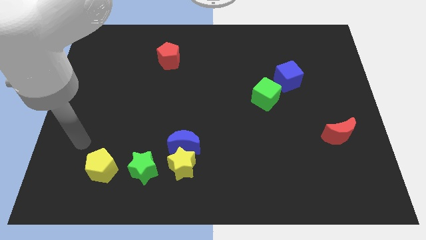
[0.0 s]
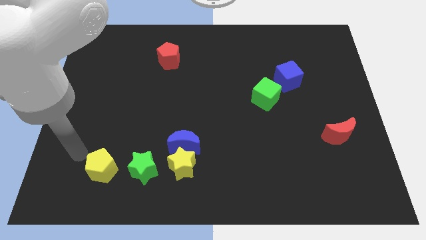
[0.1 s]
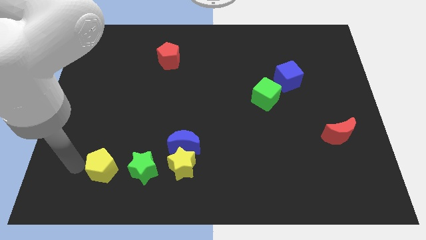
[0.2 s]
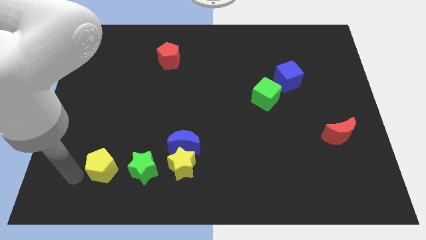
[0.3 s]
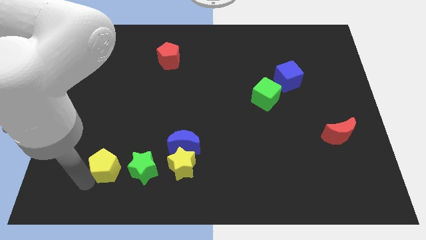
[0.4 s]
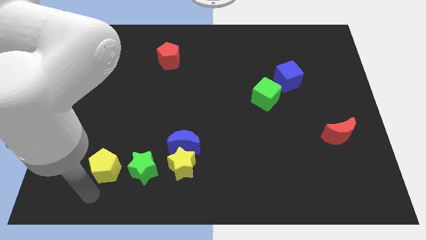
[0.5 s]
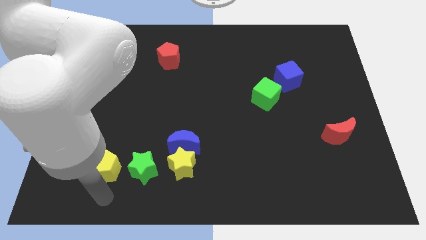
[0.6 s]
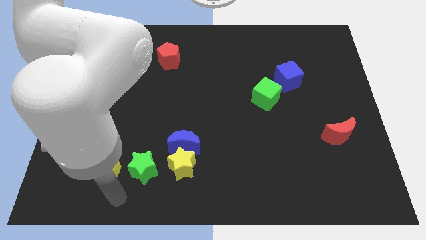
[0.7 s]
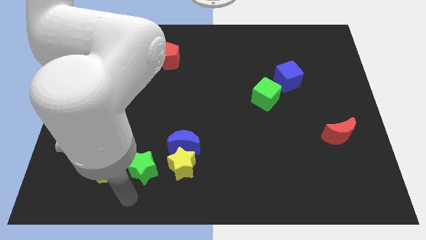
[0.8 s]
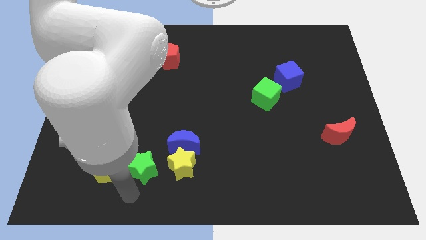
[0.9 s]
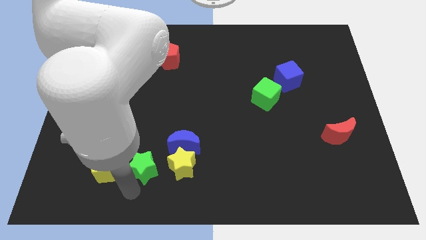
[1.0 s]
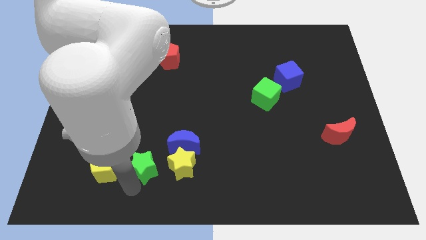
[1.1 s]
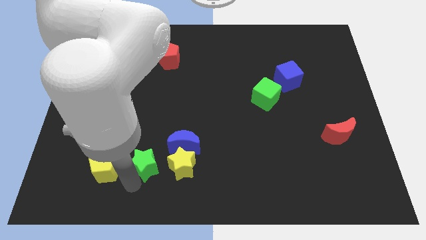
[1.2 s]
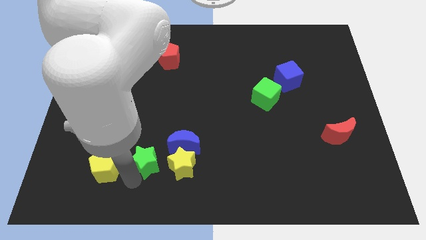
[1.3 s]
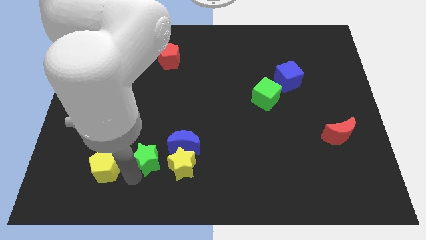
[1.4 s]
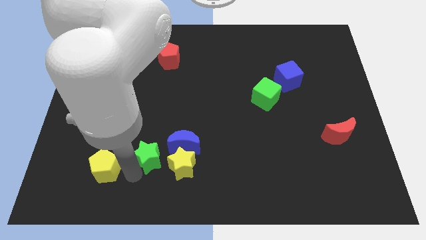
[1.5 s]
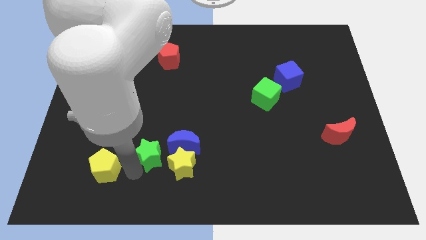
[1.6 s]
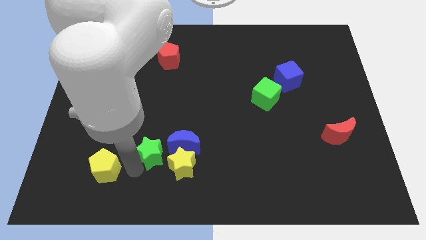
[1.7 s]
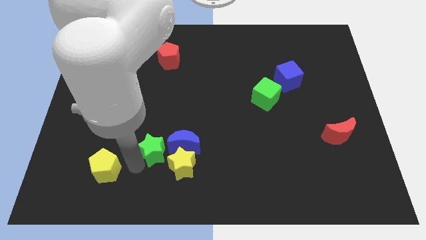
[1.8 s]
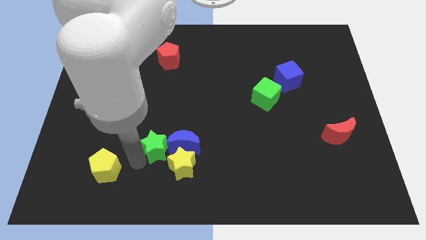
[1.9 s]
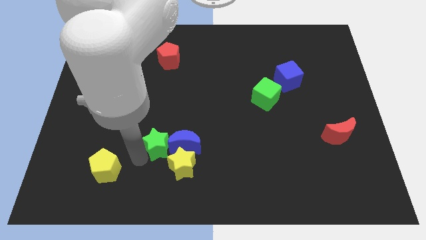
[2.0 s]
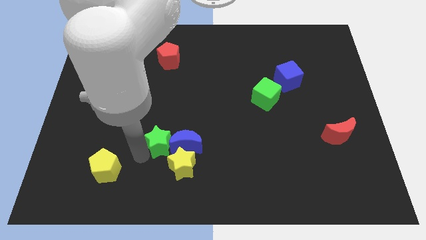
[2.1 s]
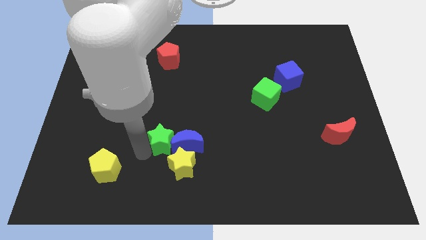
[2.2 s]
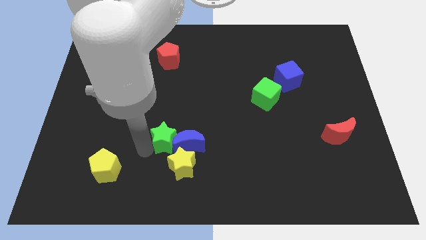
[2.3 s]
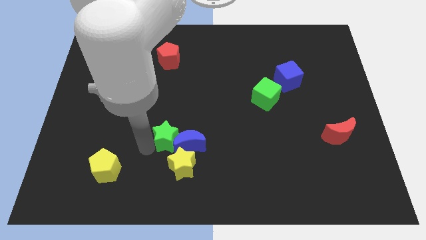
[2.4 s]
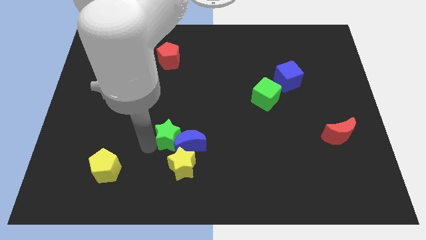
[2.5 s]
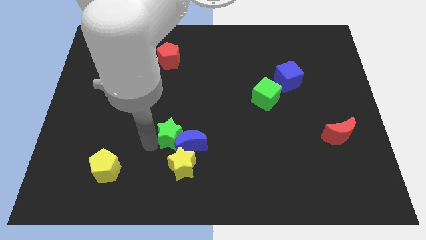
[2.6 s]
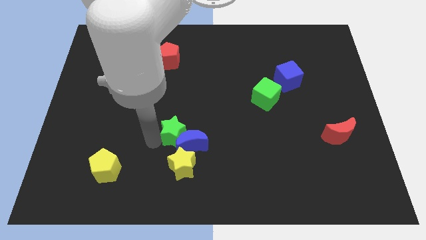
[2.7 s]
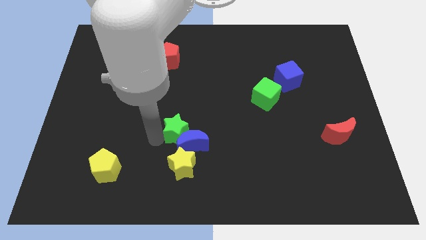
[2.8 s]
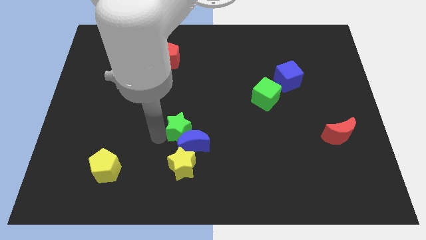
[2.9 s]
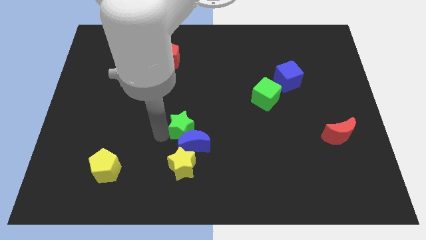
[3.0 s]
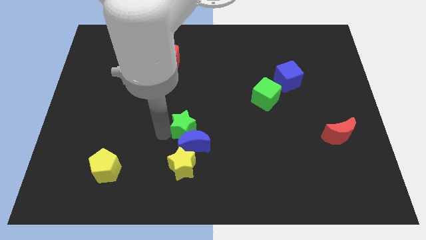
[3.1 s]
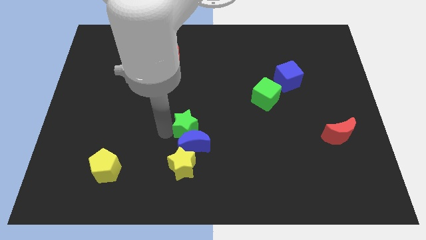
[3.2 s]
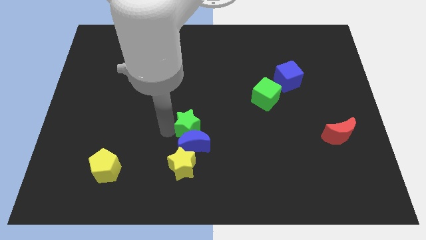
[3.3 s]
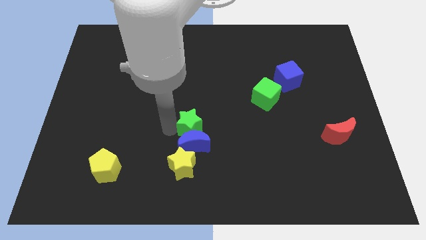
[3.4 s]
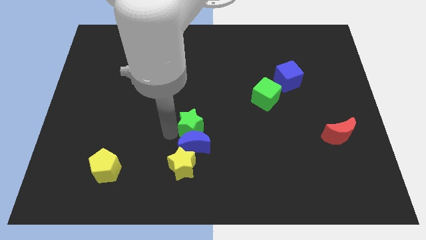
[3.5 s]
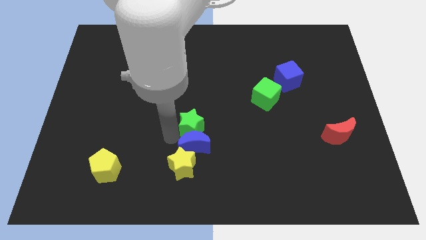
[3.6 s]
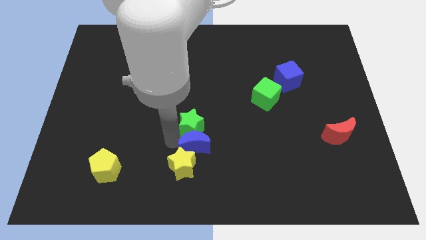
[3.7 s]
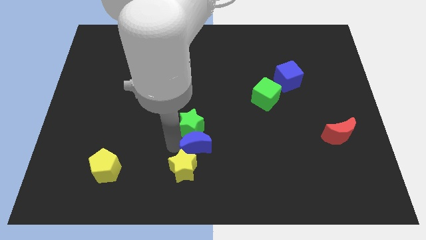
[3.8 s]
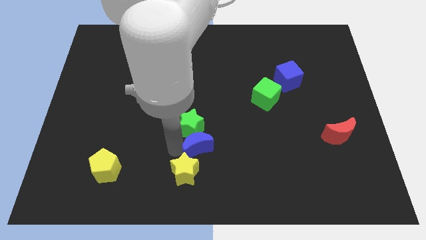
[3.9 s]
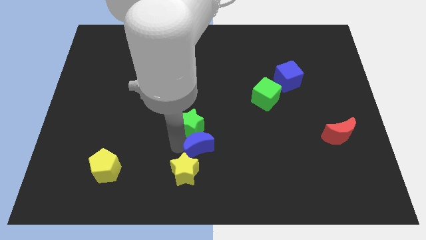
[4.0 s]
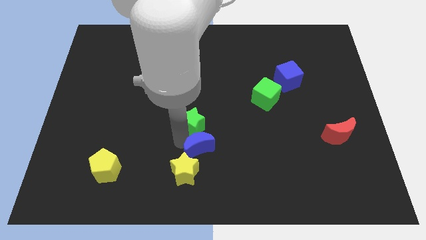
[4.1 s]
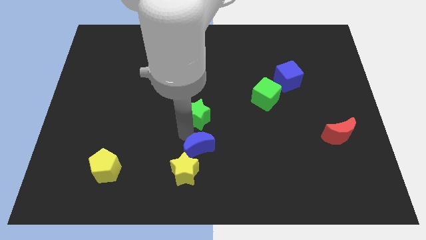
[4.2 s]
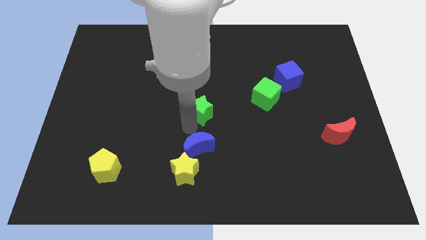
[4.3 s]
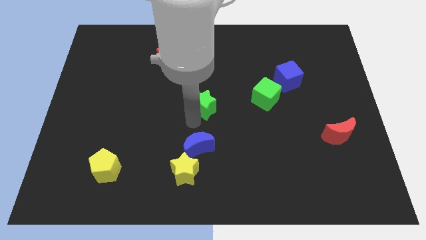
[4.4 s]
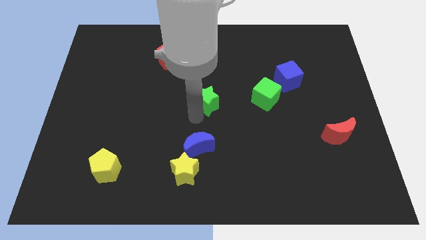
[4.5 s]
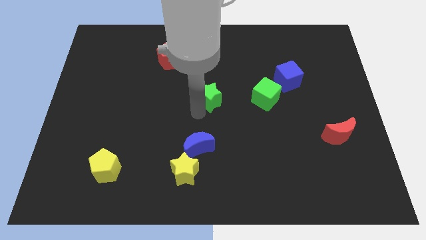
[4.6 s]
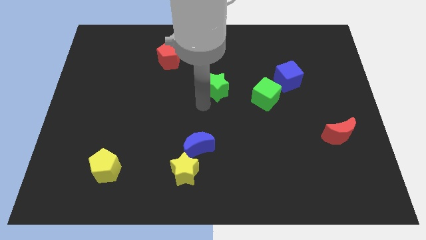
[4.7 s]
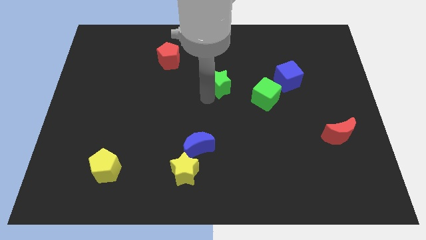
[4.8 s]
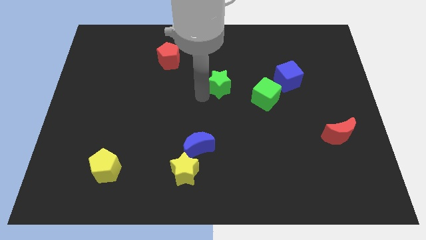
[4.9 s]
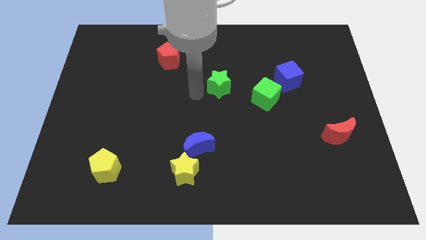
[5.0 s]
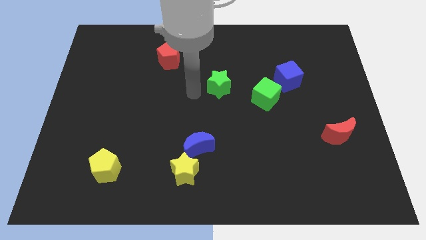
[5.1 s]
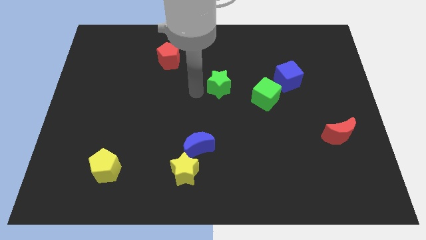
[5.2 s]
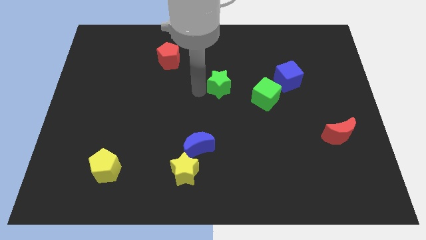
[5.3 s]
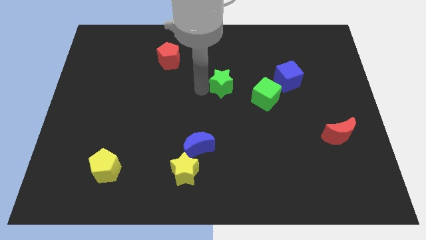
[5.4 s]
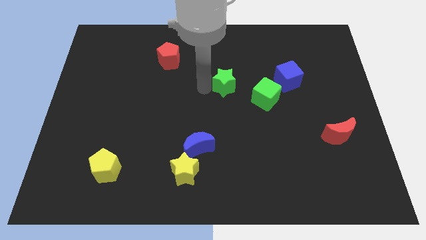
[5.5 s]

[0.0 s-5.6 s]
put the green star just left of the blue cube

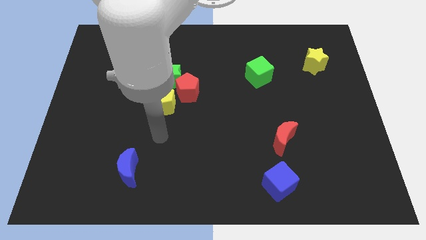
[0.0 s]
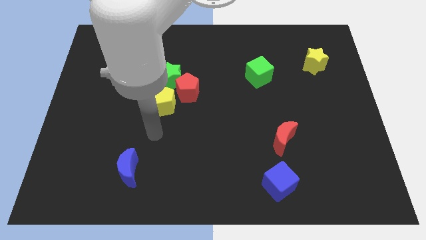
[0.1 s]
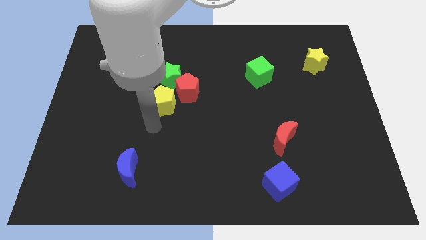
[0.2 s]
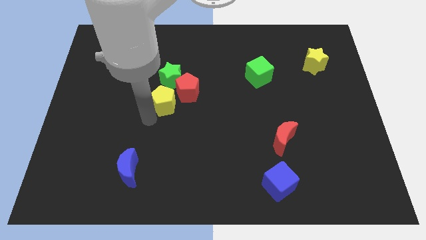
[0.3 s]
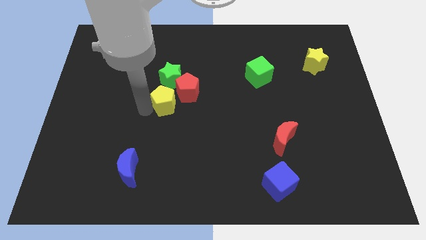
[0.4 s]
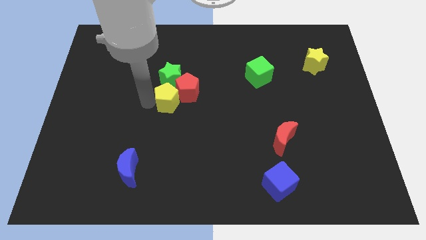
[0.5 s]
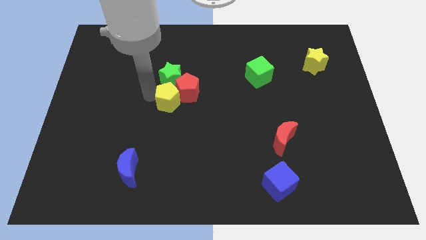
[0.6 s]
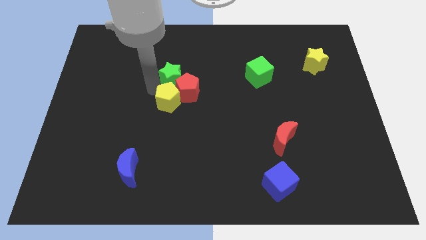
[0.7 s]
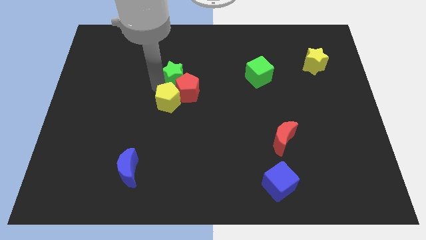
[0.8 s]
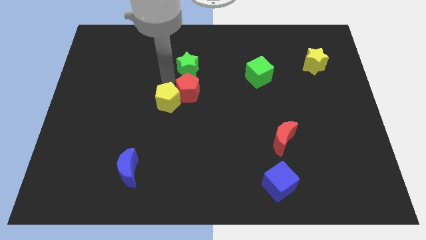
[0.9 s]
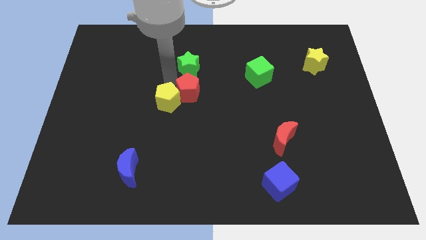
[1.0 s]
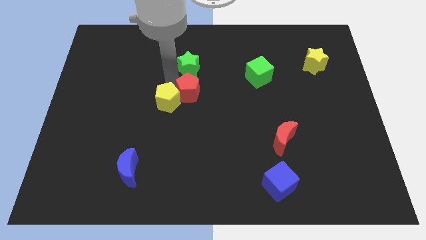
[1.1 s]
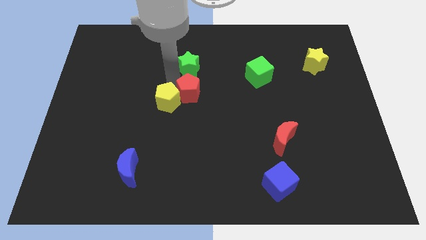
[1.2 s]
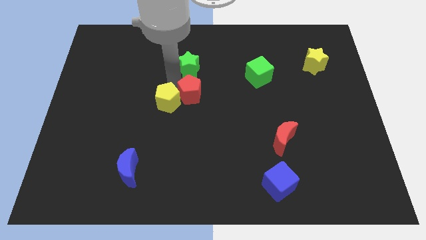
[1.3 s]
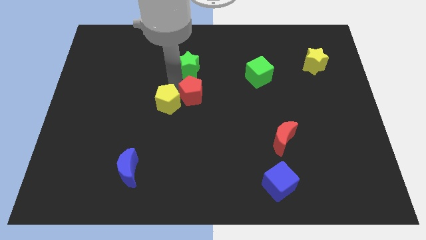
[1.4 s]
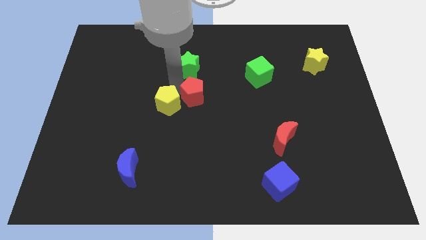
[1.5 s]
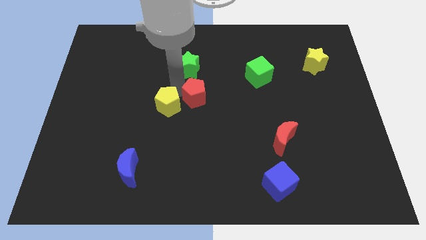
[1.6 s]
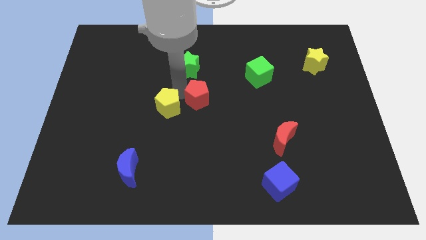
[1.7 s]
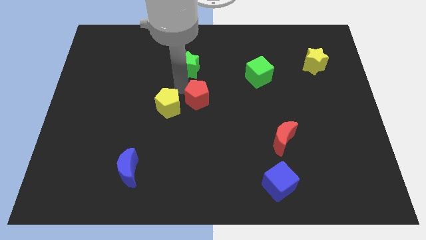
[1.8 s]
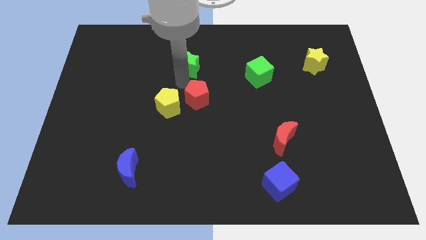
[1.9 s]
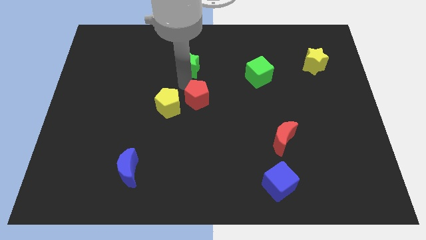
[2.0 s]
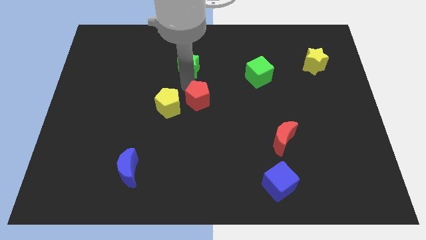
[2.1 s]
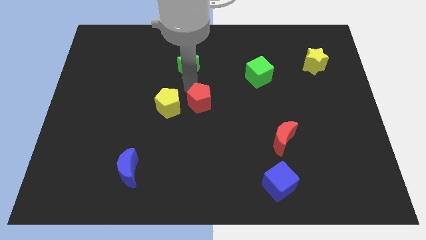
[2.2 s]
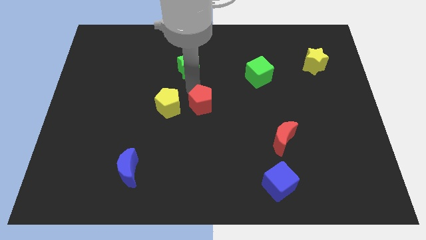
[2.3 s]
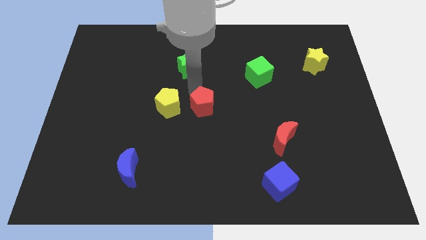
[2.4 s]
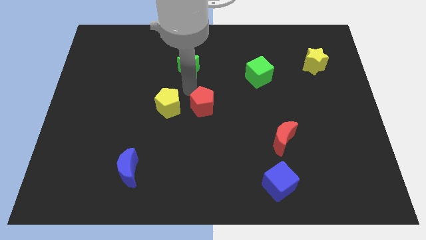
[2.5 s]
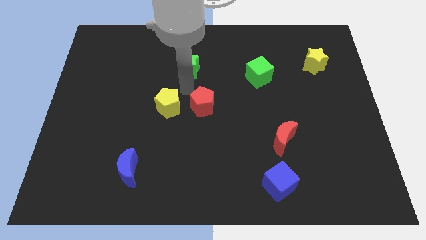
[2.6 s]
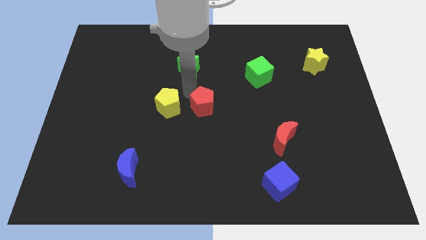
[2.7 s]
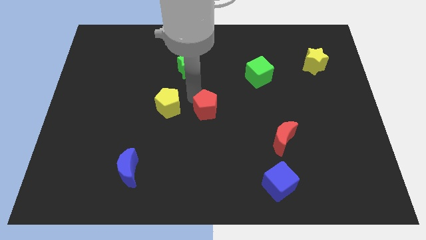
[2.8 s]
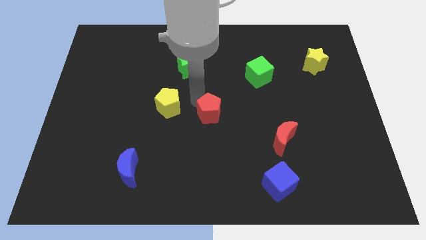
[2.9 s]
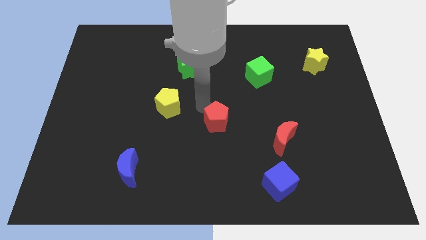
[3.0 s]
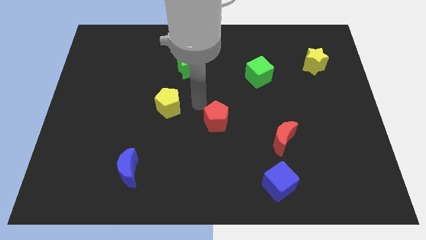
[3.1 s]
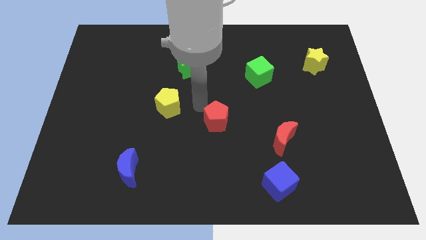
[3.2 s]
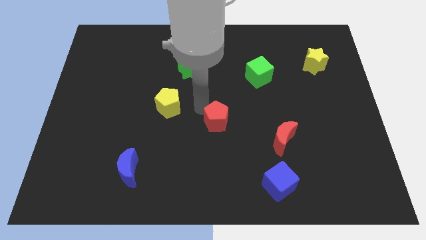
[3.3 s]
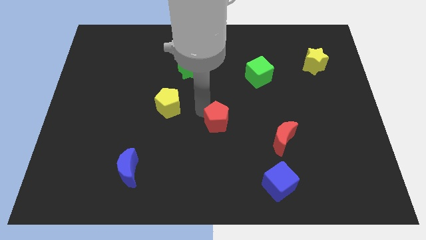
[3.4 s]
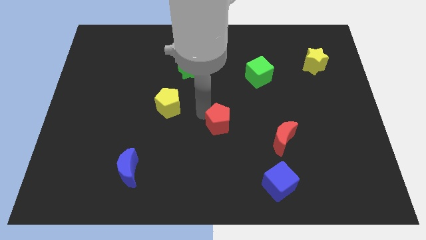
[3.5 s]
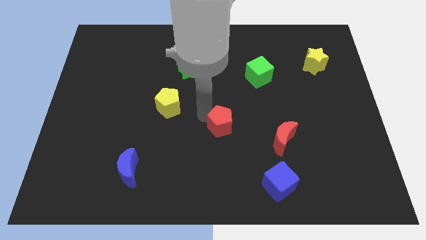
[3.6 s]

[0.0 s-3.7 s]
move the red pentagon left of the red moon
